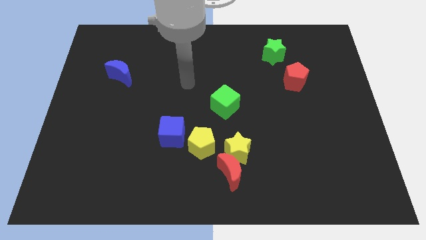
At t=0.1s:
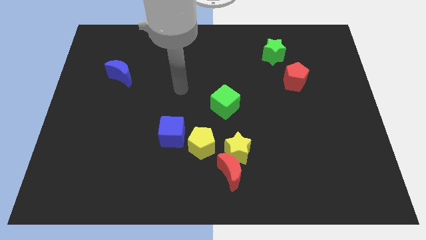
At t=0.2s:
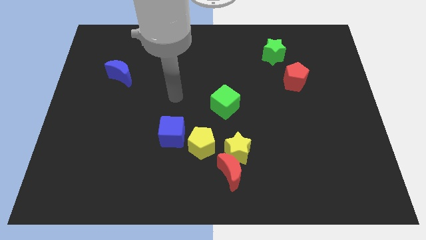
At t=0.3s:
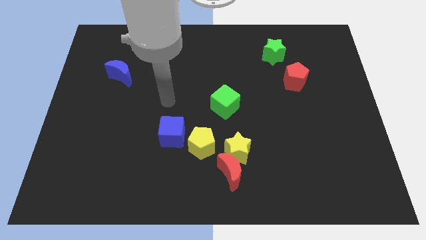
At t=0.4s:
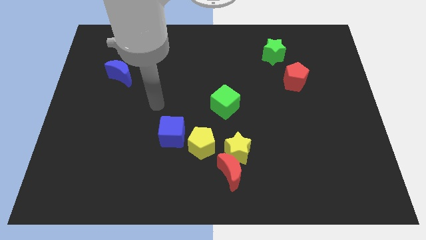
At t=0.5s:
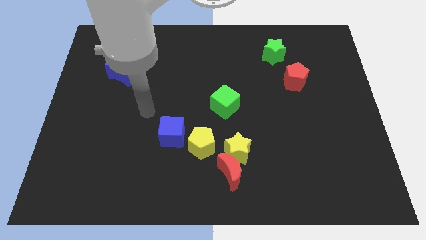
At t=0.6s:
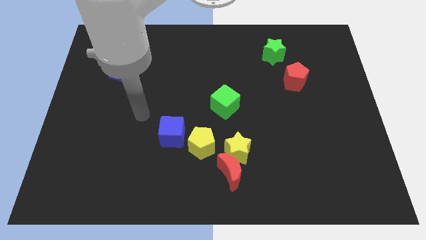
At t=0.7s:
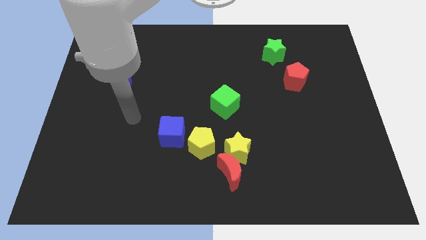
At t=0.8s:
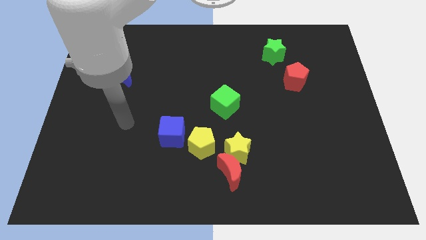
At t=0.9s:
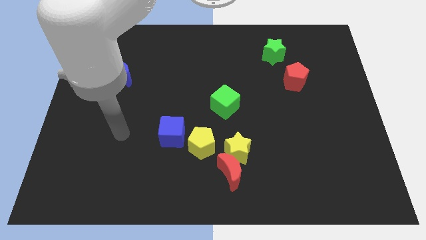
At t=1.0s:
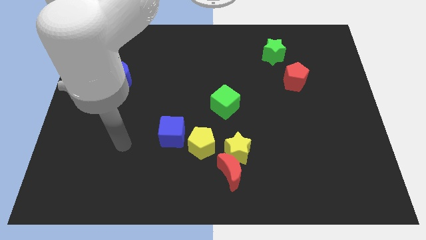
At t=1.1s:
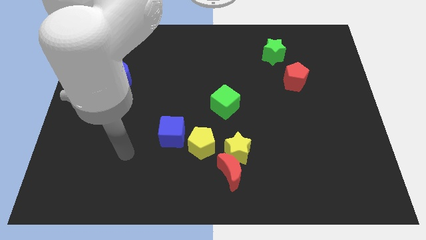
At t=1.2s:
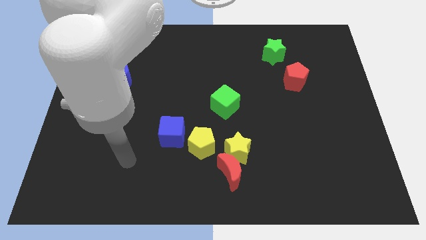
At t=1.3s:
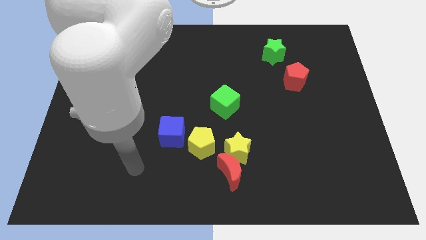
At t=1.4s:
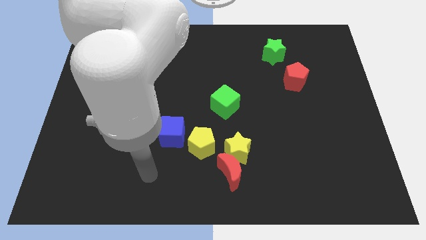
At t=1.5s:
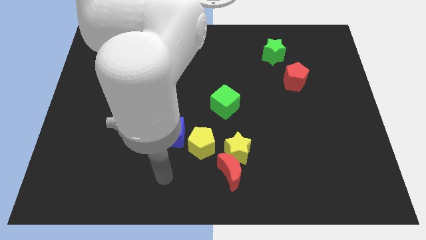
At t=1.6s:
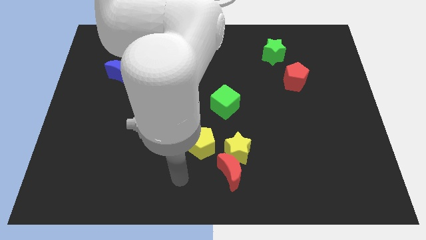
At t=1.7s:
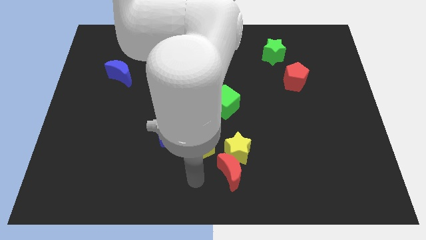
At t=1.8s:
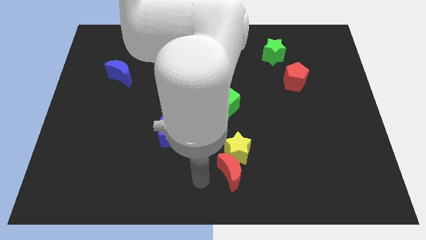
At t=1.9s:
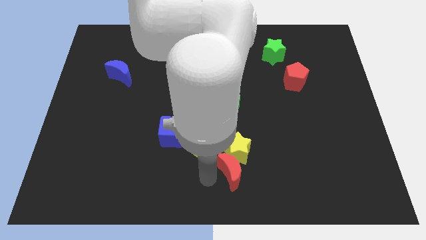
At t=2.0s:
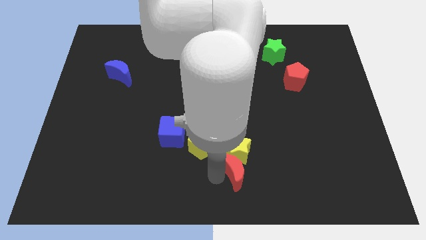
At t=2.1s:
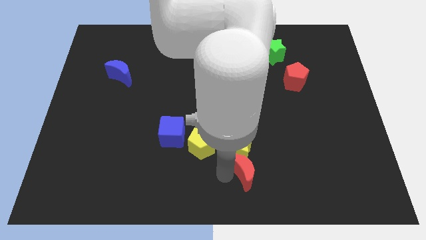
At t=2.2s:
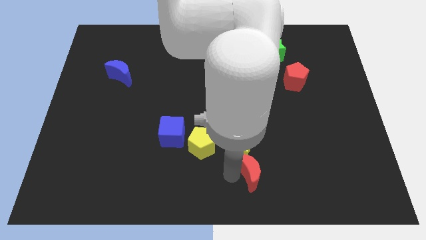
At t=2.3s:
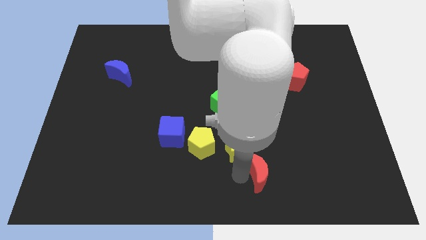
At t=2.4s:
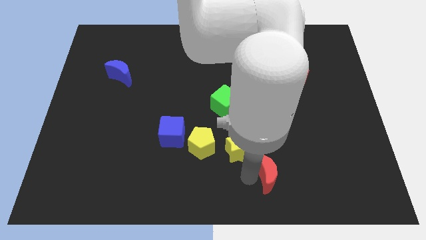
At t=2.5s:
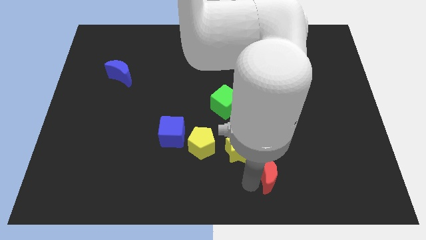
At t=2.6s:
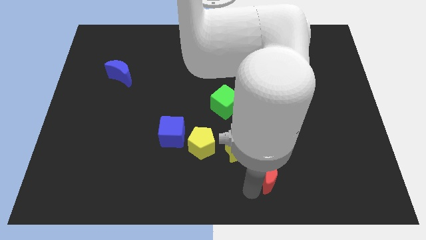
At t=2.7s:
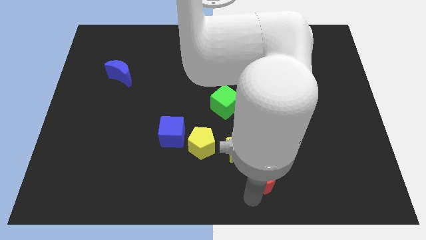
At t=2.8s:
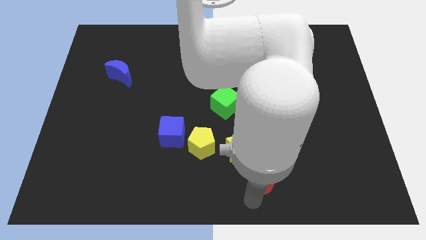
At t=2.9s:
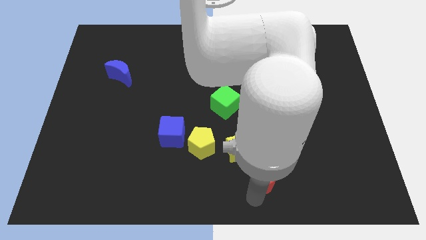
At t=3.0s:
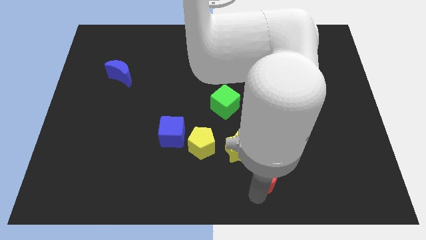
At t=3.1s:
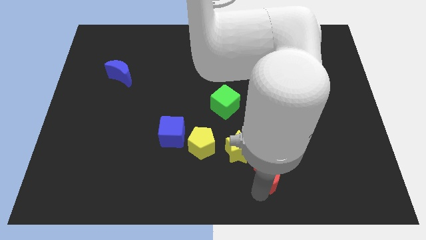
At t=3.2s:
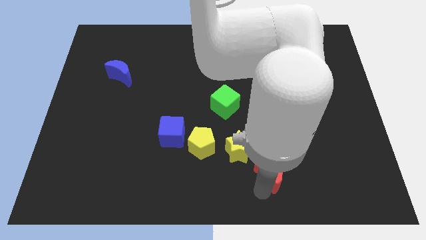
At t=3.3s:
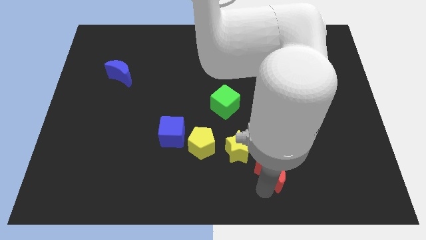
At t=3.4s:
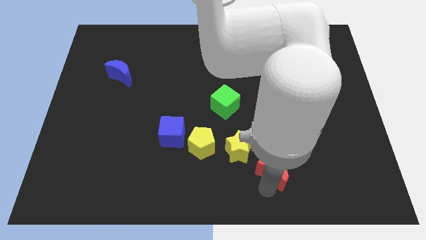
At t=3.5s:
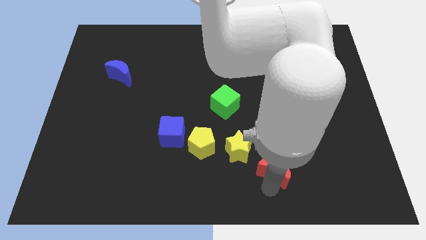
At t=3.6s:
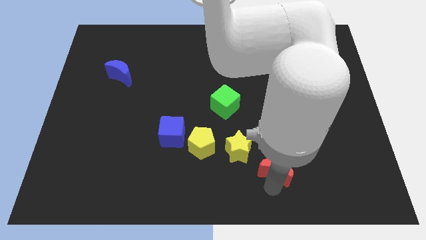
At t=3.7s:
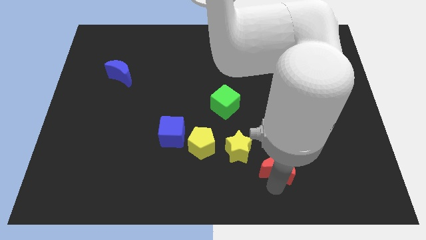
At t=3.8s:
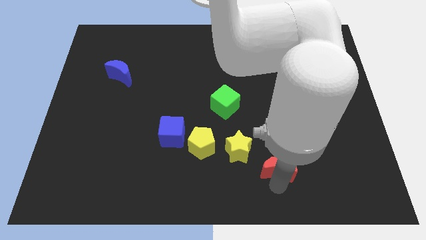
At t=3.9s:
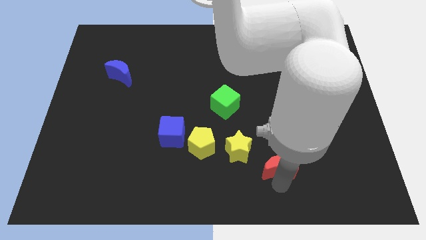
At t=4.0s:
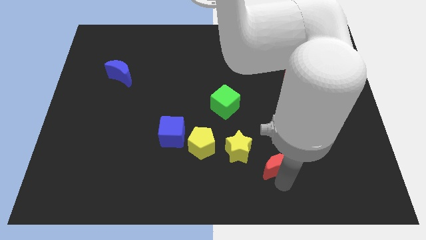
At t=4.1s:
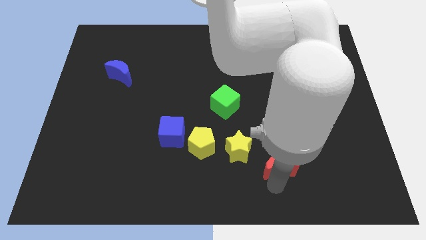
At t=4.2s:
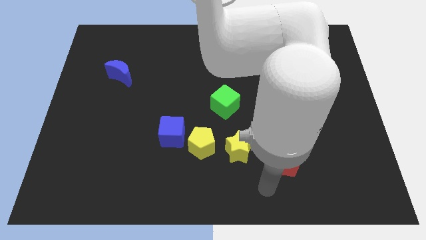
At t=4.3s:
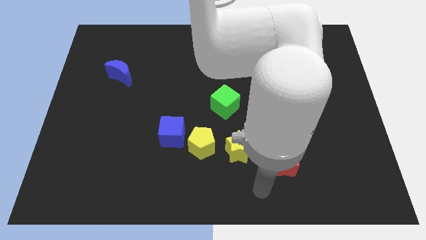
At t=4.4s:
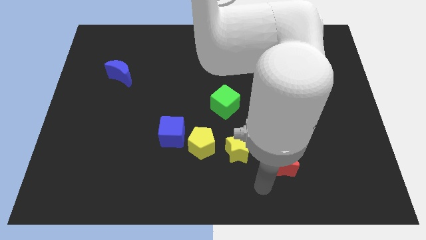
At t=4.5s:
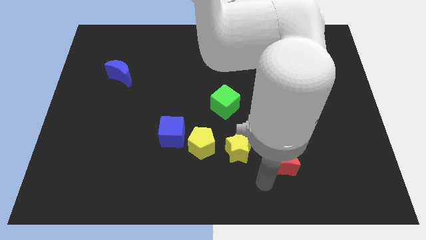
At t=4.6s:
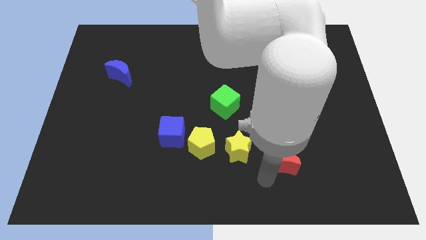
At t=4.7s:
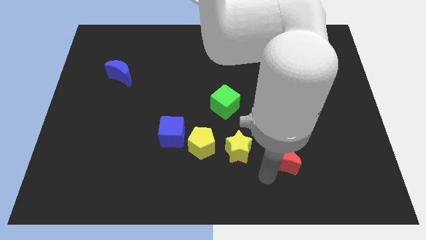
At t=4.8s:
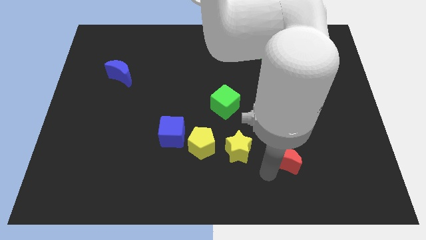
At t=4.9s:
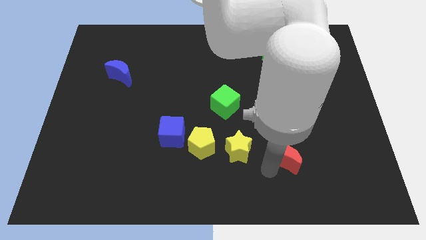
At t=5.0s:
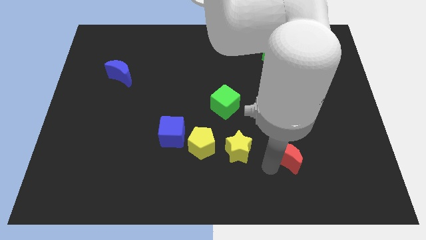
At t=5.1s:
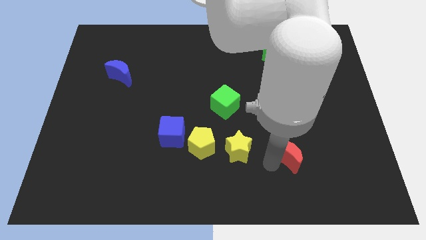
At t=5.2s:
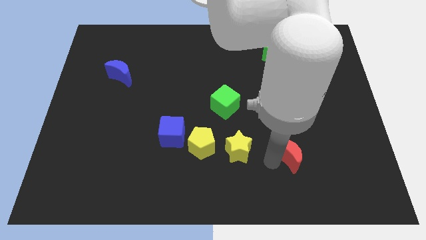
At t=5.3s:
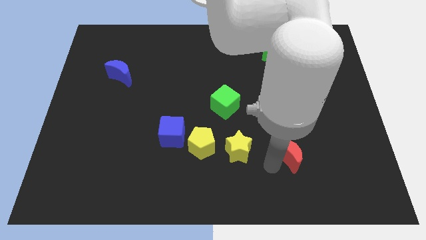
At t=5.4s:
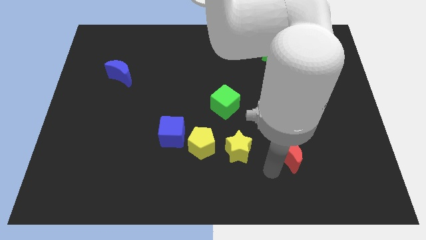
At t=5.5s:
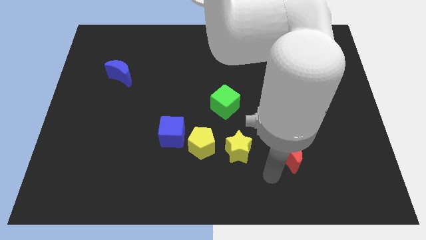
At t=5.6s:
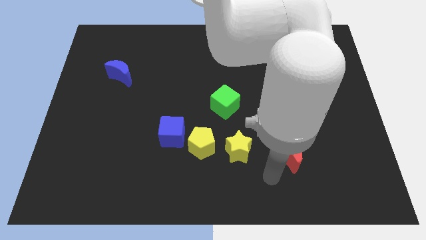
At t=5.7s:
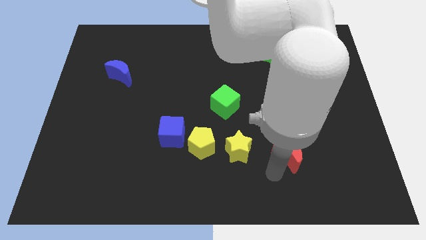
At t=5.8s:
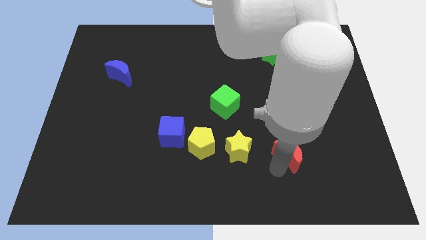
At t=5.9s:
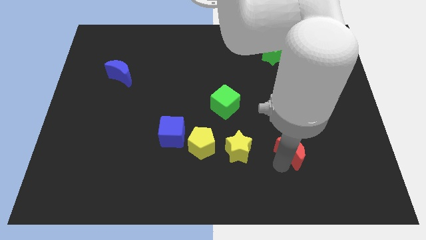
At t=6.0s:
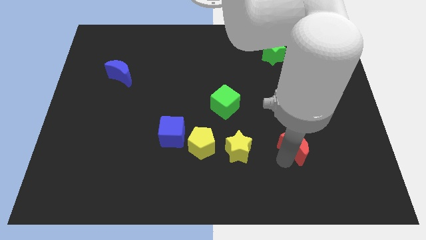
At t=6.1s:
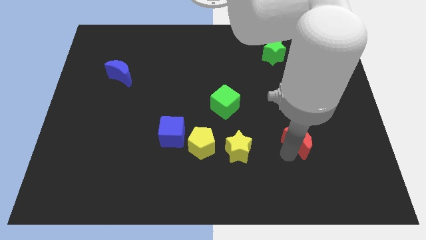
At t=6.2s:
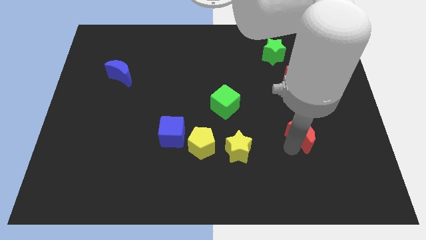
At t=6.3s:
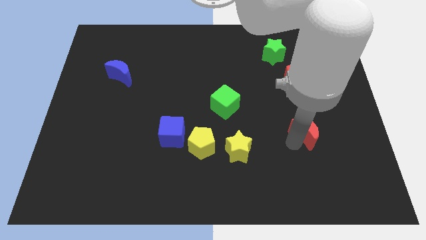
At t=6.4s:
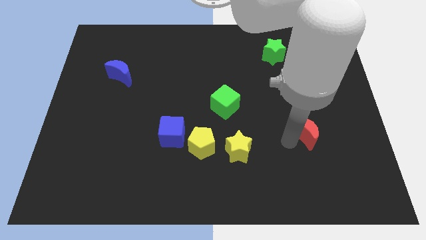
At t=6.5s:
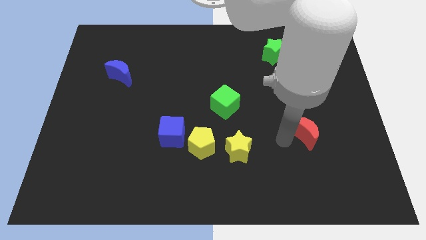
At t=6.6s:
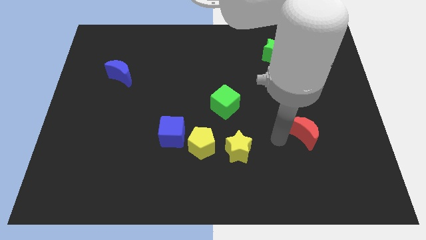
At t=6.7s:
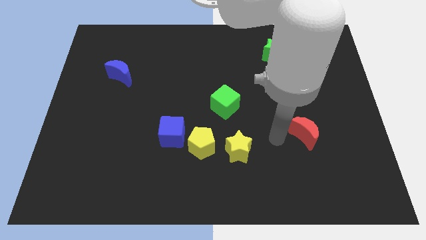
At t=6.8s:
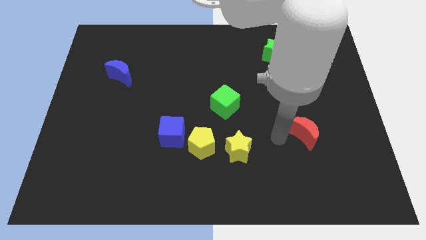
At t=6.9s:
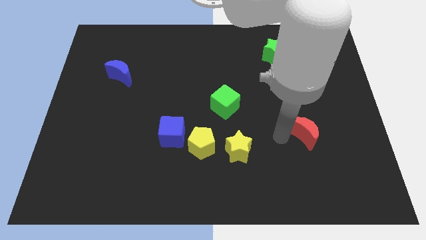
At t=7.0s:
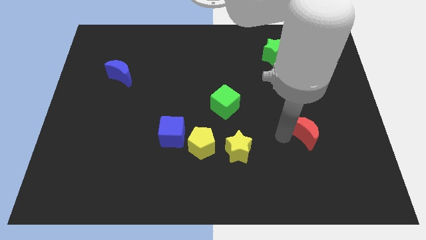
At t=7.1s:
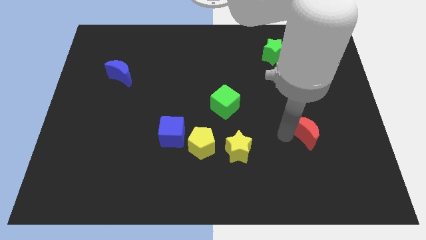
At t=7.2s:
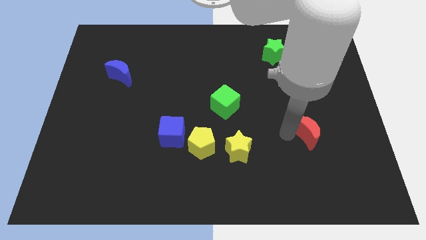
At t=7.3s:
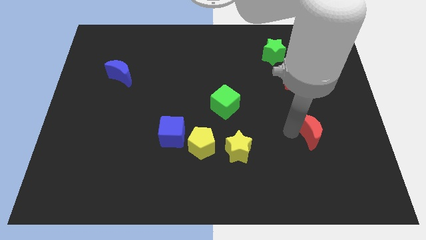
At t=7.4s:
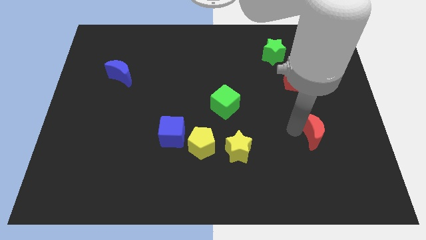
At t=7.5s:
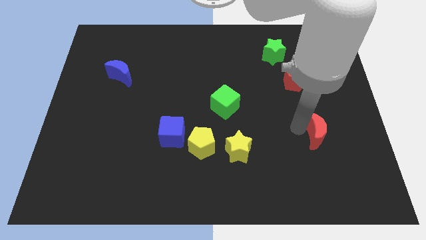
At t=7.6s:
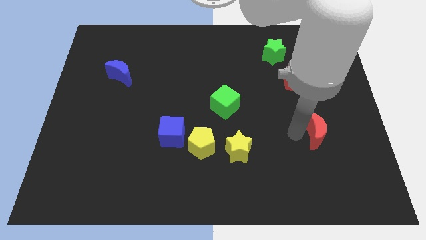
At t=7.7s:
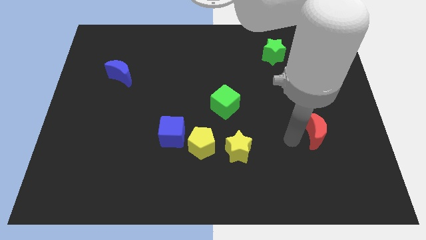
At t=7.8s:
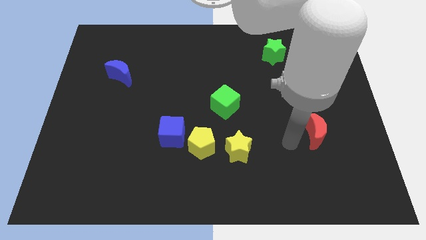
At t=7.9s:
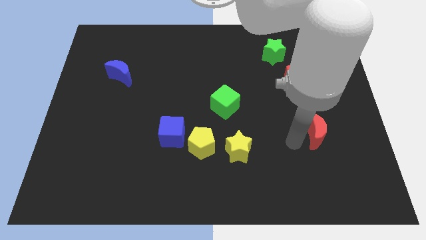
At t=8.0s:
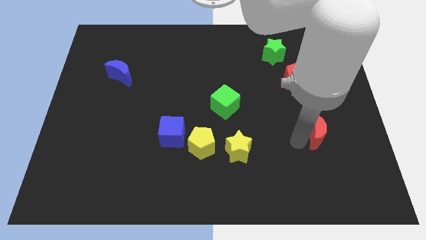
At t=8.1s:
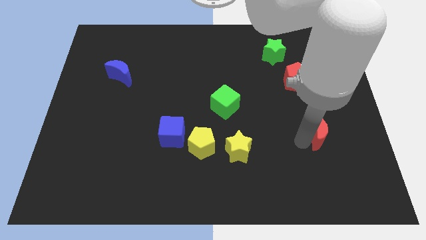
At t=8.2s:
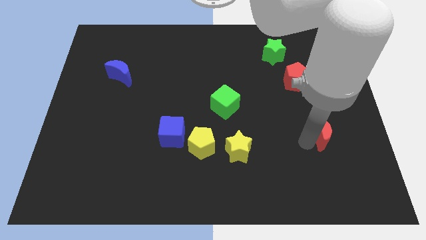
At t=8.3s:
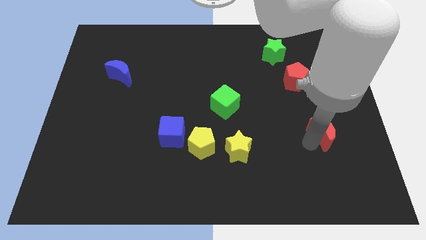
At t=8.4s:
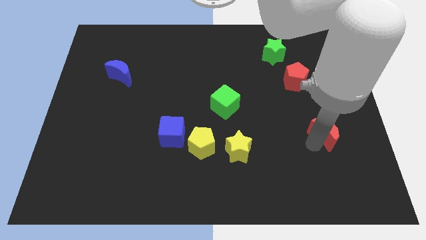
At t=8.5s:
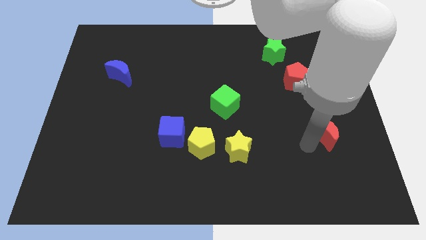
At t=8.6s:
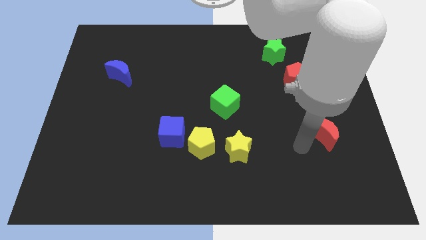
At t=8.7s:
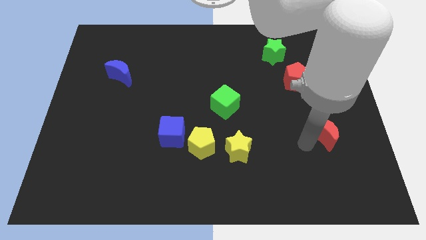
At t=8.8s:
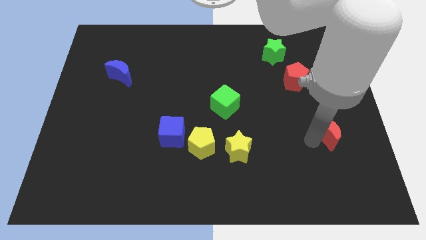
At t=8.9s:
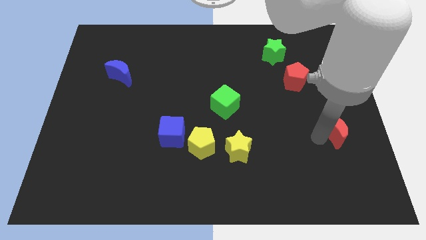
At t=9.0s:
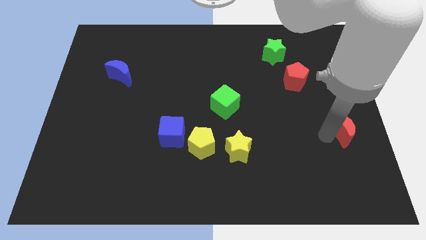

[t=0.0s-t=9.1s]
push the red moon to the right side
